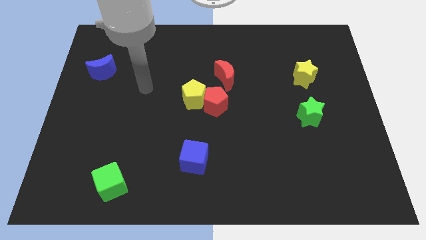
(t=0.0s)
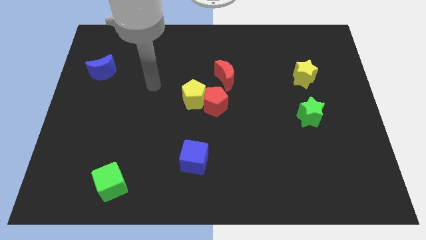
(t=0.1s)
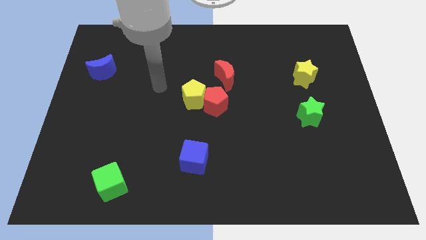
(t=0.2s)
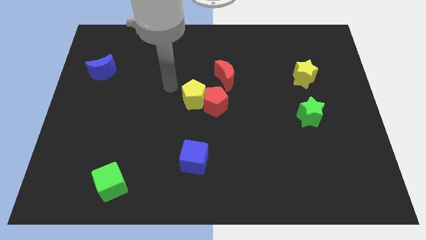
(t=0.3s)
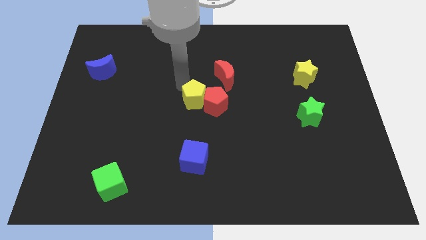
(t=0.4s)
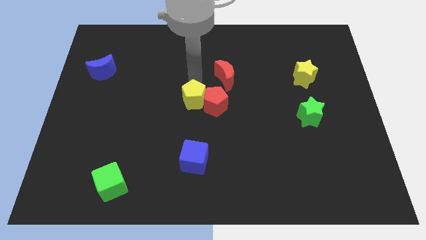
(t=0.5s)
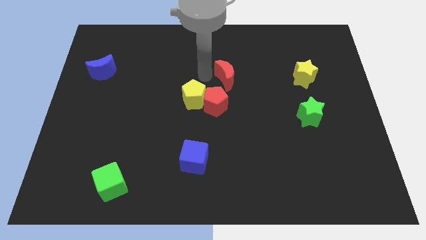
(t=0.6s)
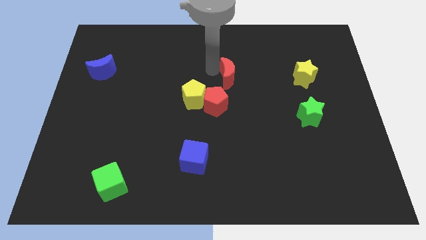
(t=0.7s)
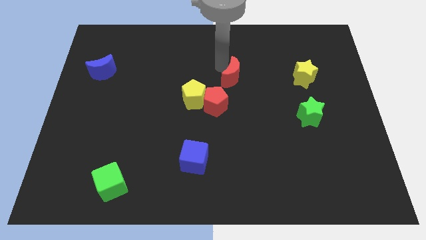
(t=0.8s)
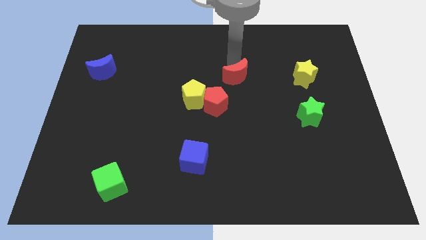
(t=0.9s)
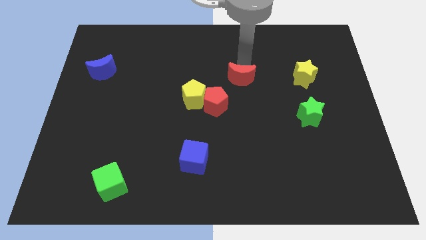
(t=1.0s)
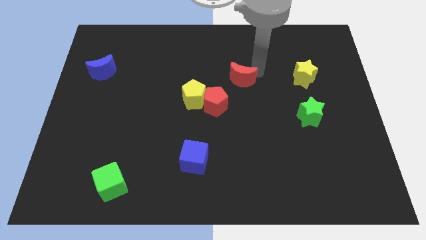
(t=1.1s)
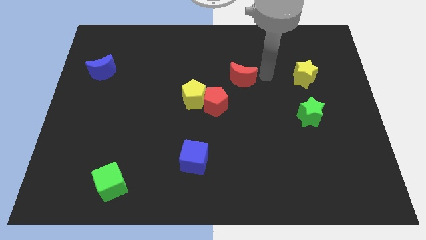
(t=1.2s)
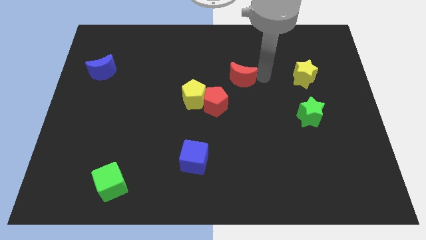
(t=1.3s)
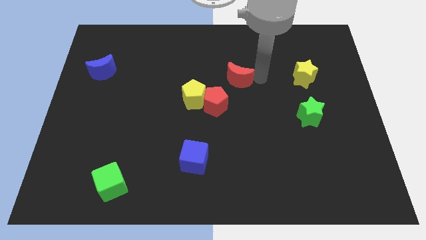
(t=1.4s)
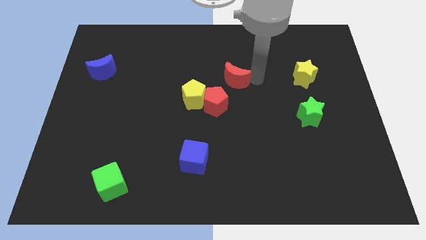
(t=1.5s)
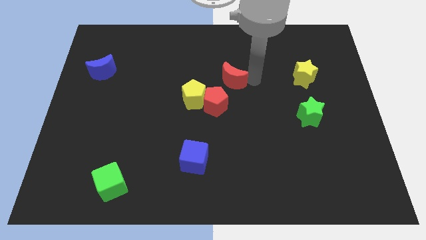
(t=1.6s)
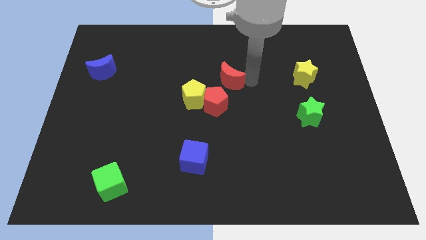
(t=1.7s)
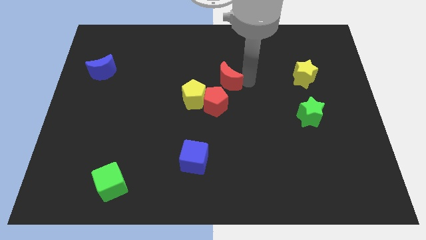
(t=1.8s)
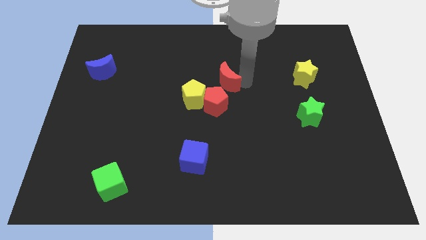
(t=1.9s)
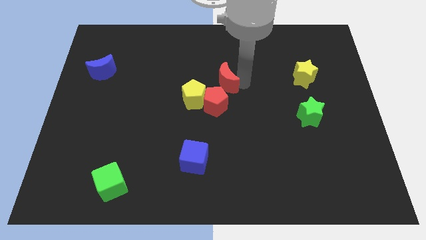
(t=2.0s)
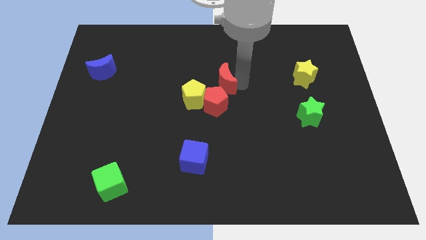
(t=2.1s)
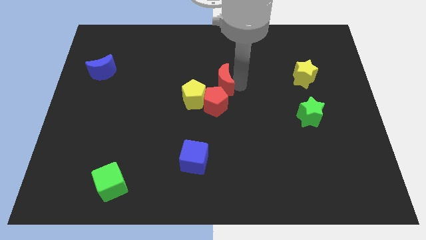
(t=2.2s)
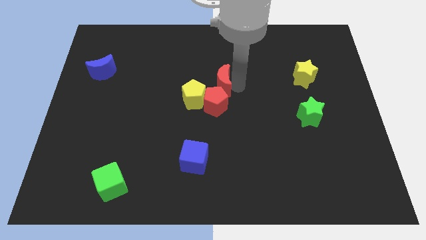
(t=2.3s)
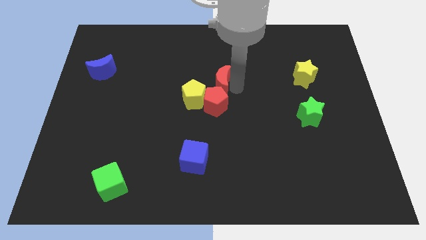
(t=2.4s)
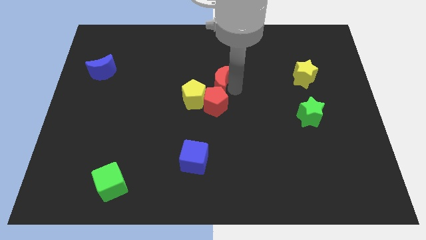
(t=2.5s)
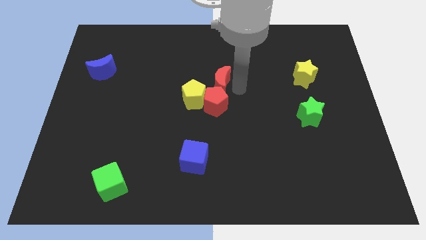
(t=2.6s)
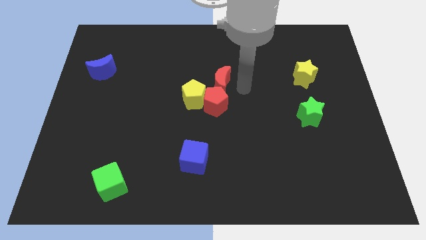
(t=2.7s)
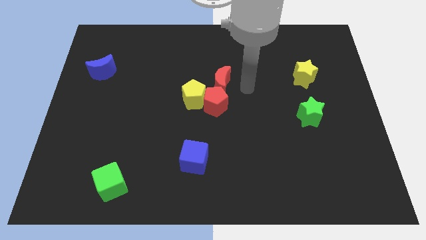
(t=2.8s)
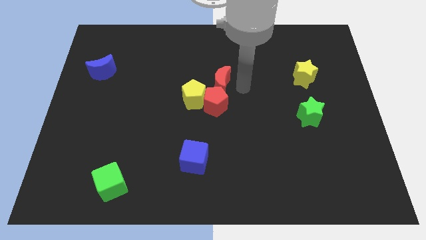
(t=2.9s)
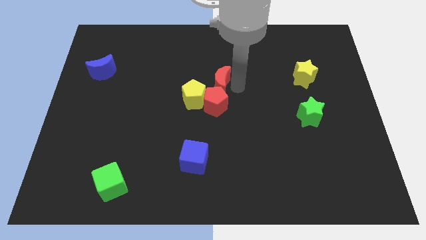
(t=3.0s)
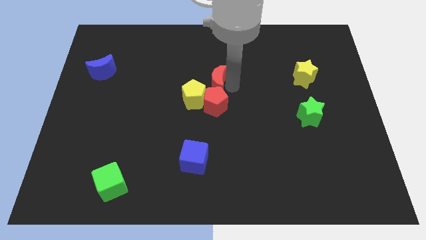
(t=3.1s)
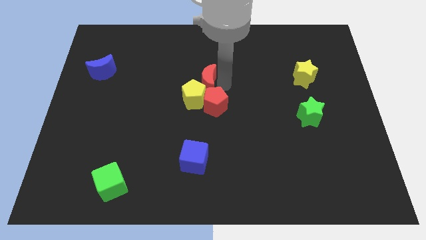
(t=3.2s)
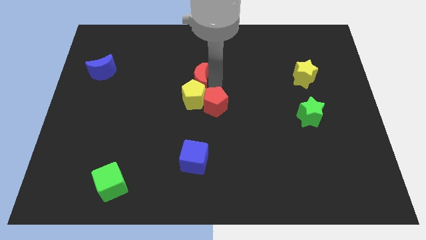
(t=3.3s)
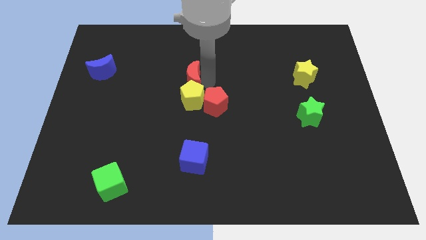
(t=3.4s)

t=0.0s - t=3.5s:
push the red moon left a little

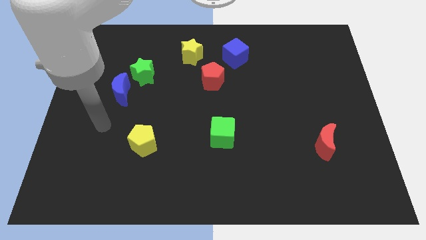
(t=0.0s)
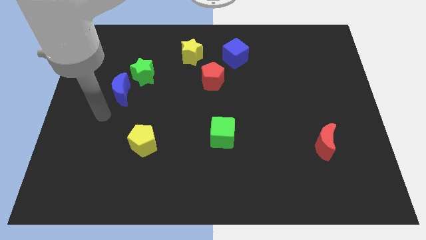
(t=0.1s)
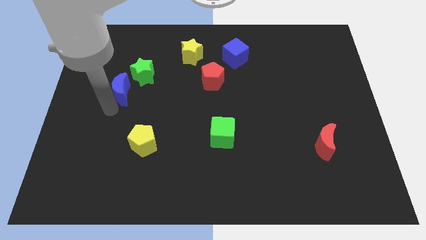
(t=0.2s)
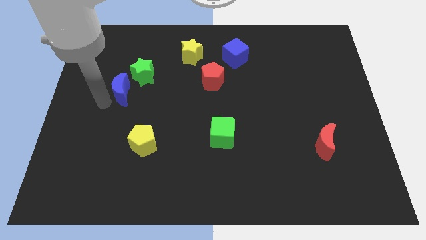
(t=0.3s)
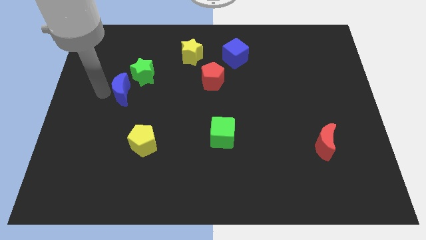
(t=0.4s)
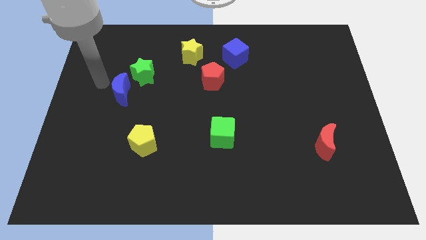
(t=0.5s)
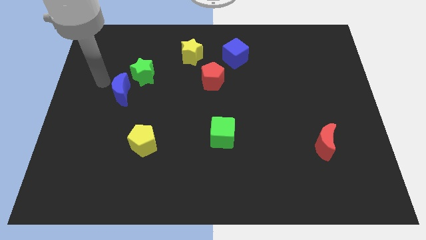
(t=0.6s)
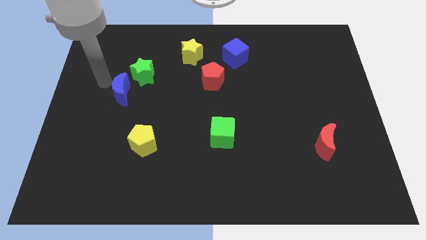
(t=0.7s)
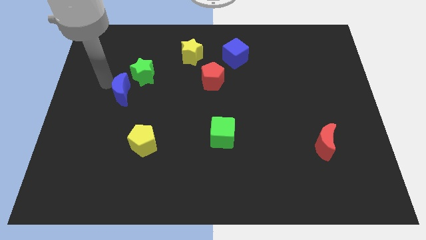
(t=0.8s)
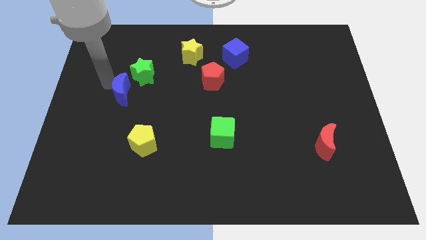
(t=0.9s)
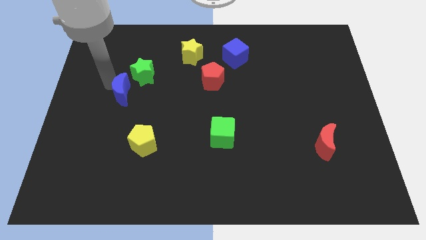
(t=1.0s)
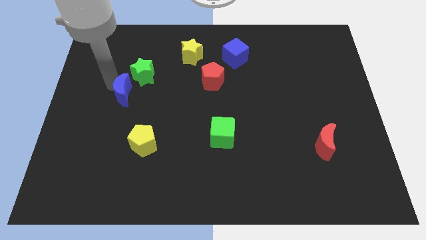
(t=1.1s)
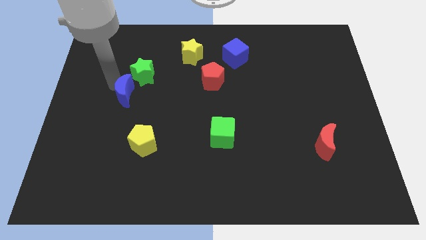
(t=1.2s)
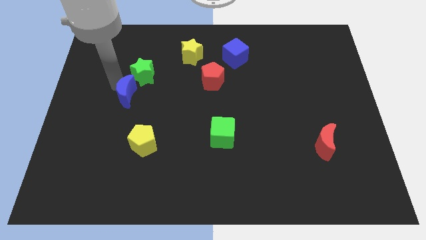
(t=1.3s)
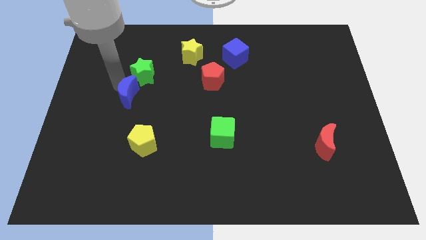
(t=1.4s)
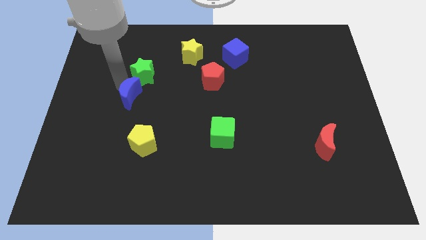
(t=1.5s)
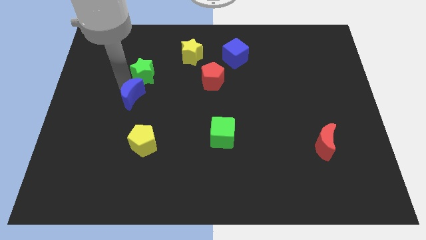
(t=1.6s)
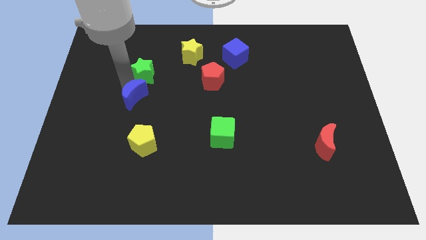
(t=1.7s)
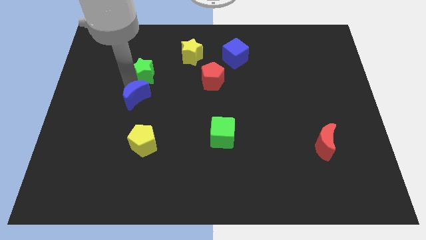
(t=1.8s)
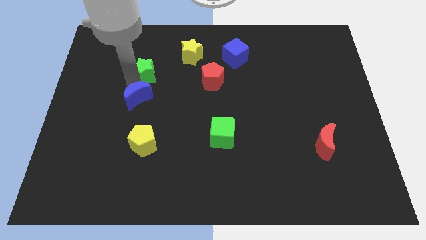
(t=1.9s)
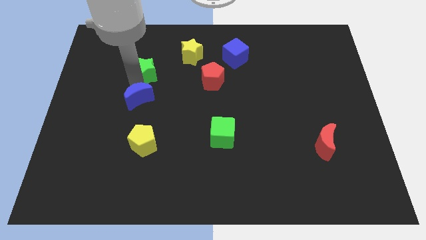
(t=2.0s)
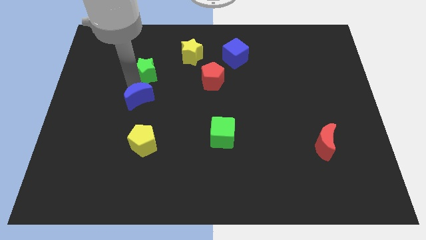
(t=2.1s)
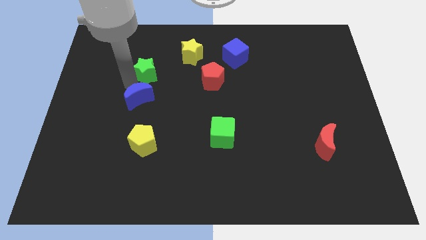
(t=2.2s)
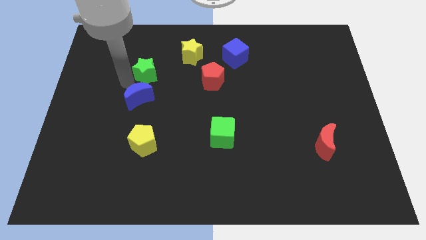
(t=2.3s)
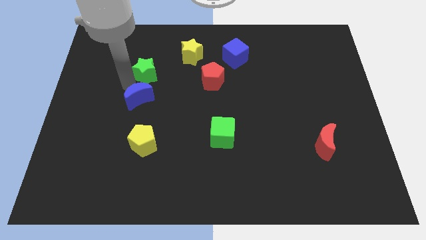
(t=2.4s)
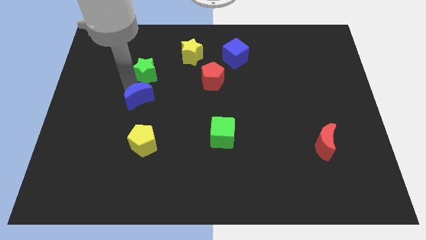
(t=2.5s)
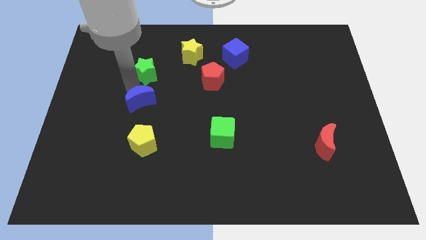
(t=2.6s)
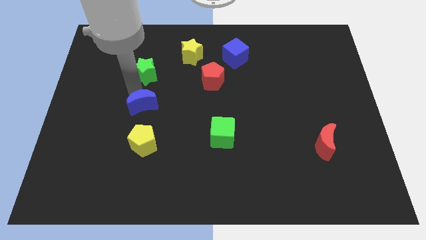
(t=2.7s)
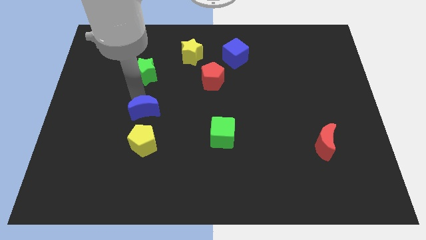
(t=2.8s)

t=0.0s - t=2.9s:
slightly push the blue moon diagonally downwards and to the right

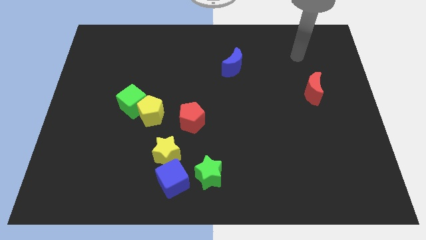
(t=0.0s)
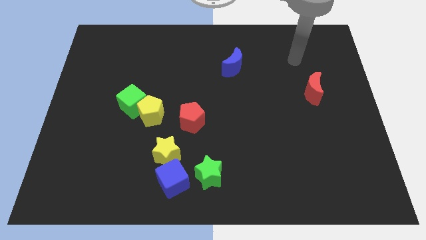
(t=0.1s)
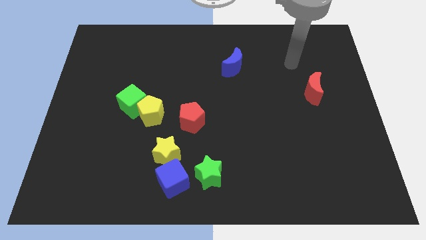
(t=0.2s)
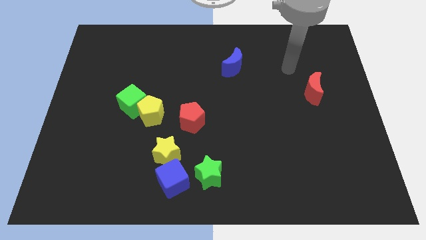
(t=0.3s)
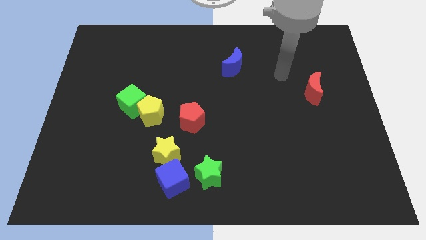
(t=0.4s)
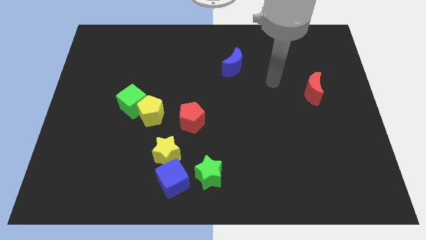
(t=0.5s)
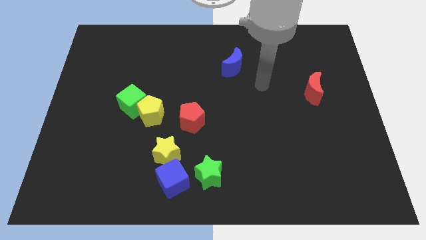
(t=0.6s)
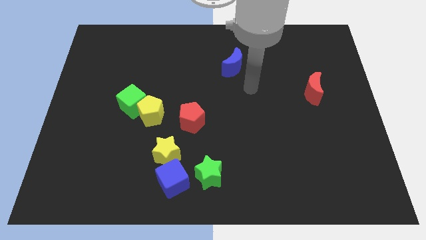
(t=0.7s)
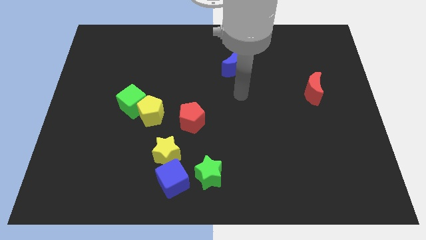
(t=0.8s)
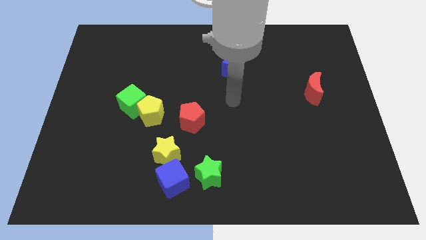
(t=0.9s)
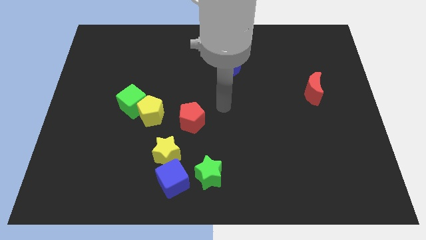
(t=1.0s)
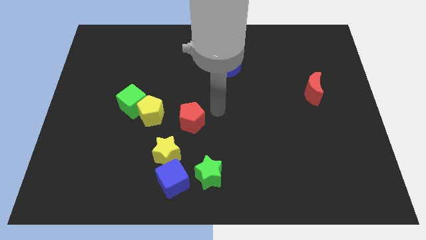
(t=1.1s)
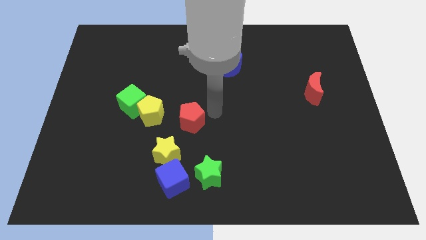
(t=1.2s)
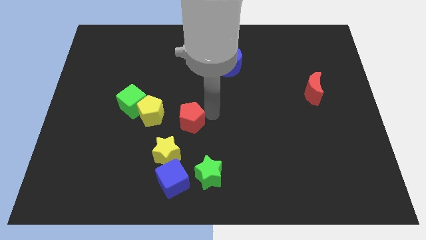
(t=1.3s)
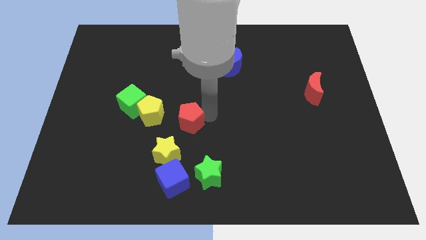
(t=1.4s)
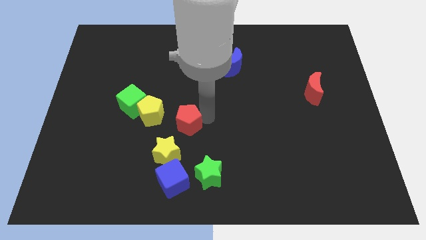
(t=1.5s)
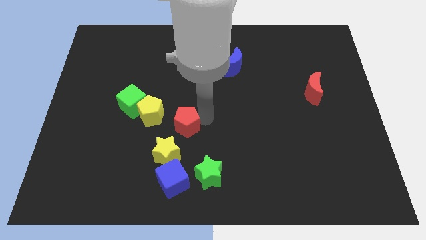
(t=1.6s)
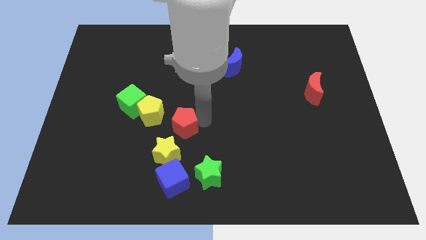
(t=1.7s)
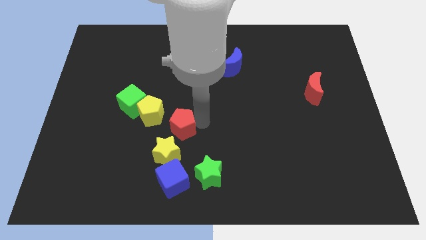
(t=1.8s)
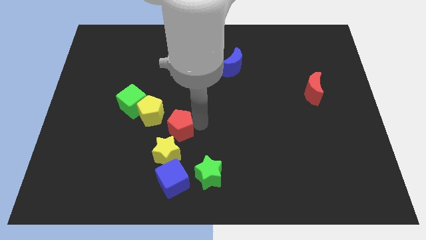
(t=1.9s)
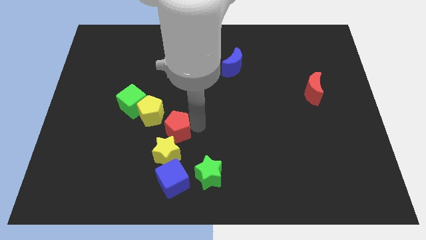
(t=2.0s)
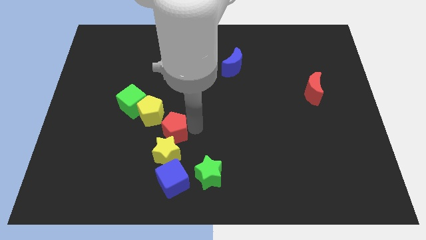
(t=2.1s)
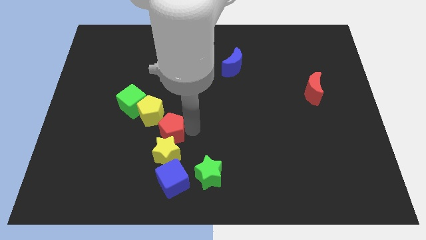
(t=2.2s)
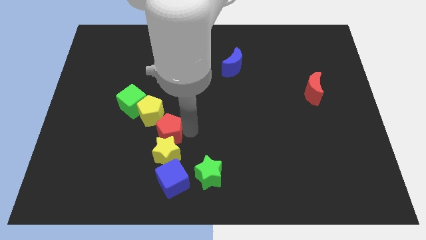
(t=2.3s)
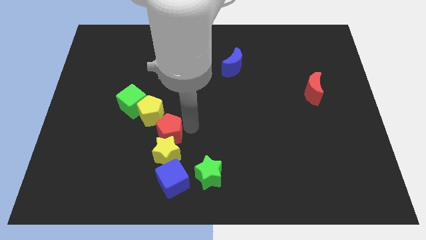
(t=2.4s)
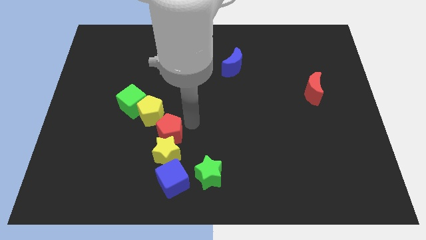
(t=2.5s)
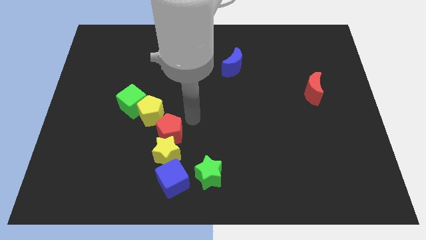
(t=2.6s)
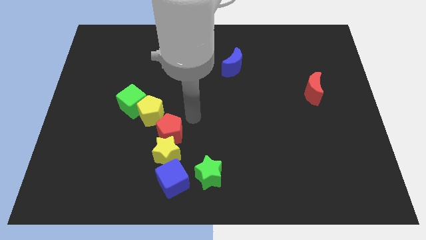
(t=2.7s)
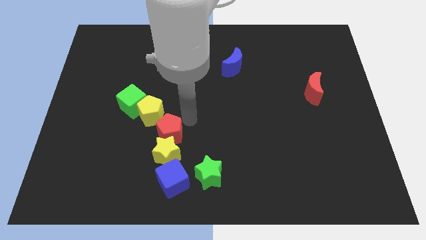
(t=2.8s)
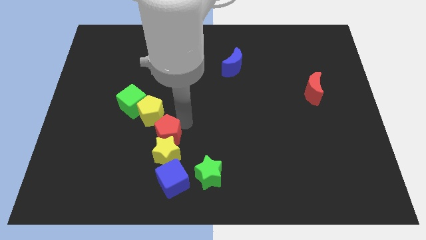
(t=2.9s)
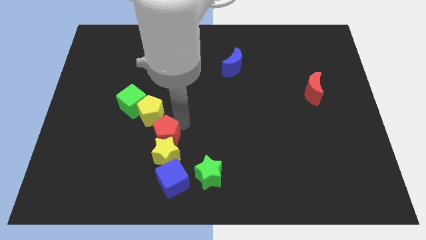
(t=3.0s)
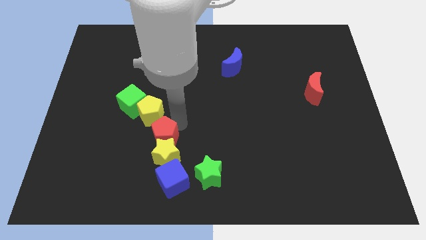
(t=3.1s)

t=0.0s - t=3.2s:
push the red pentagon diagonally downwards and left slightly
